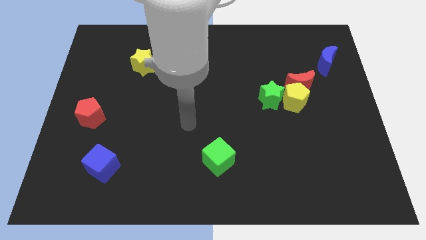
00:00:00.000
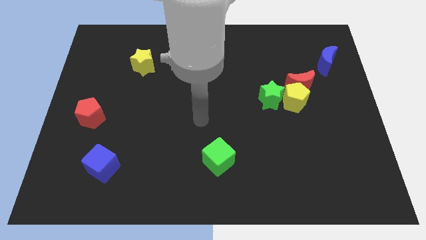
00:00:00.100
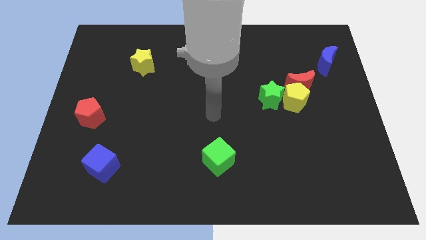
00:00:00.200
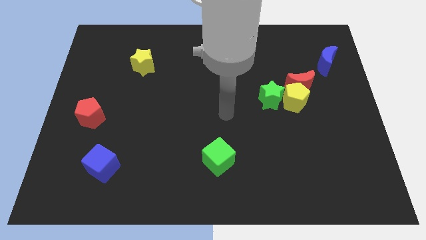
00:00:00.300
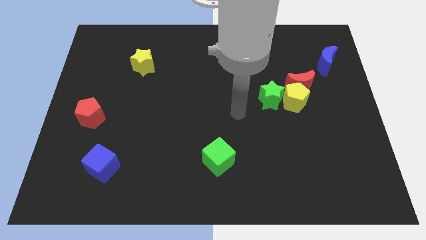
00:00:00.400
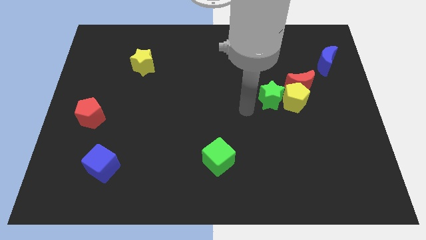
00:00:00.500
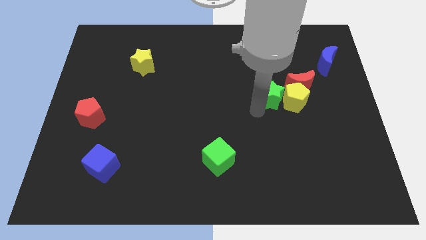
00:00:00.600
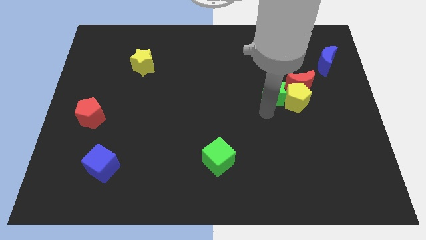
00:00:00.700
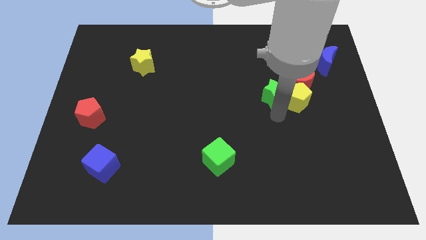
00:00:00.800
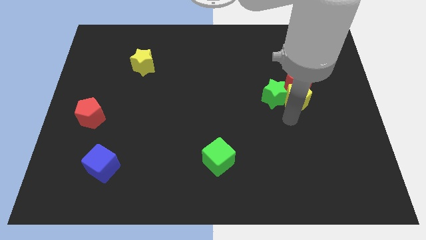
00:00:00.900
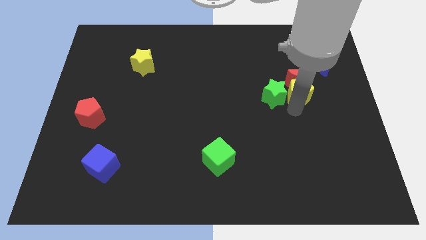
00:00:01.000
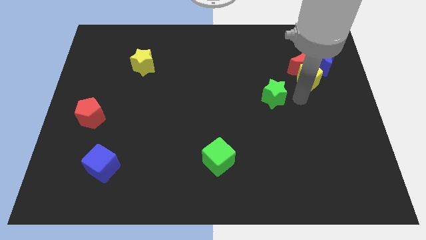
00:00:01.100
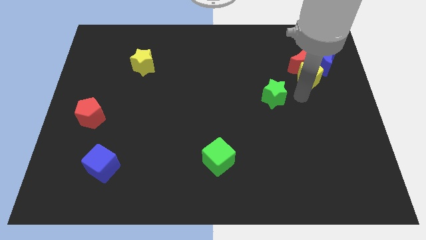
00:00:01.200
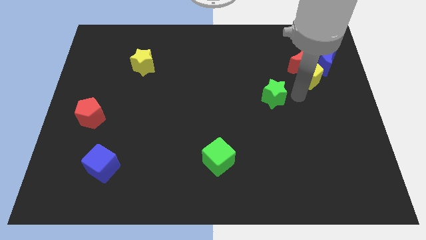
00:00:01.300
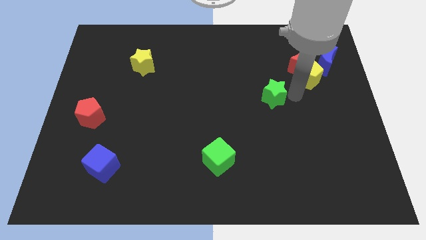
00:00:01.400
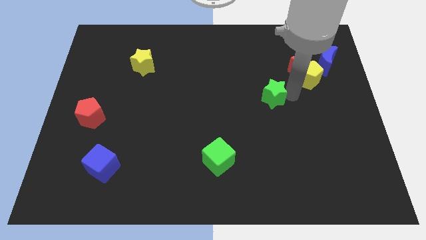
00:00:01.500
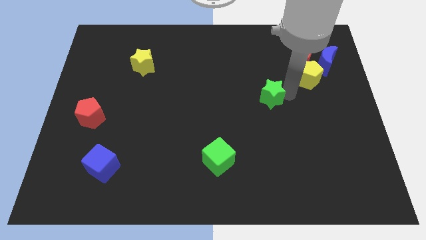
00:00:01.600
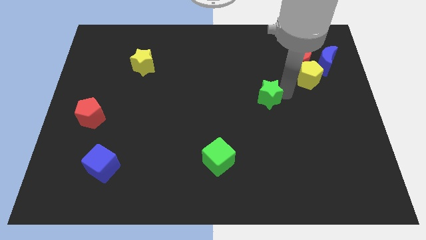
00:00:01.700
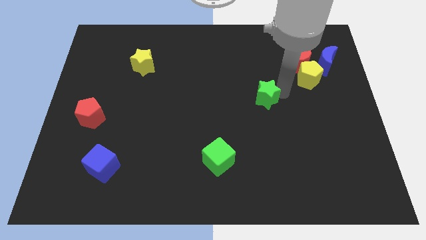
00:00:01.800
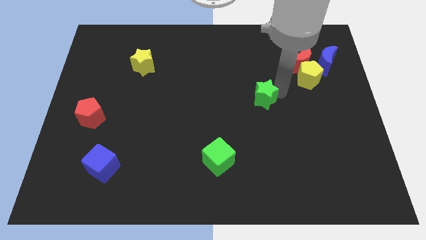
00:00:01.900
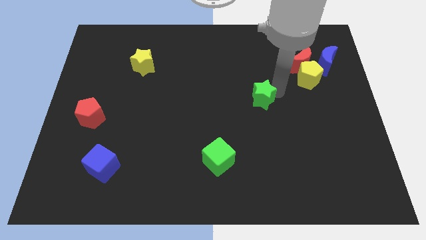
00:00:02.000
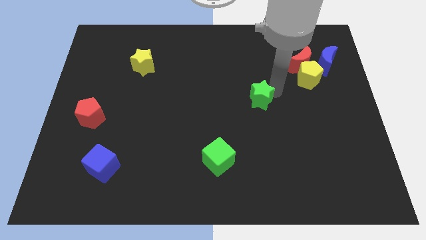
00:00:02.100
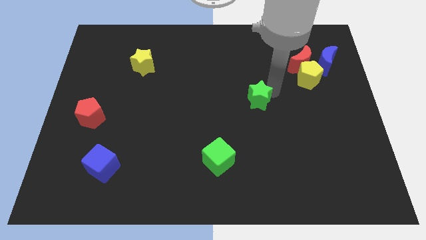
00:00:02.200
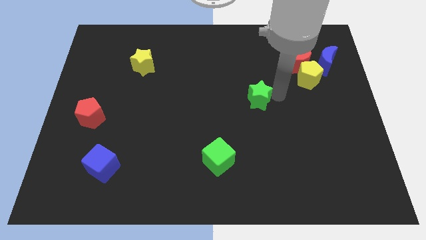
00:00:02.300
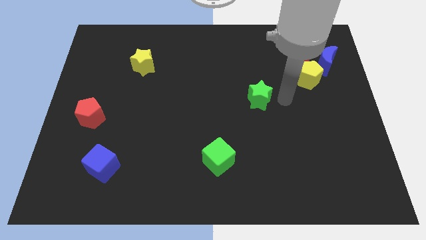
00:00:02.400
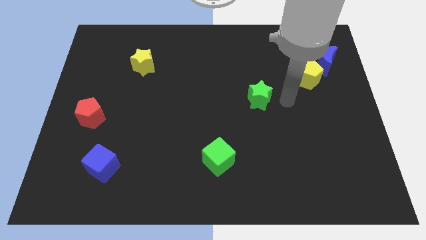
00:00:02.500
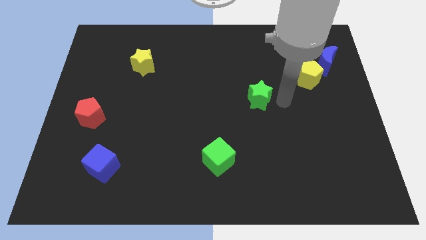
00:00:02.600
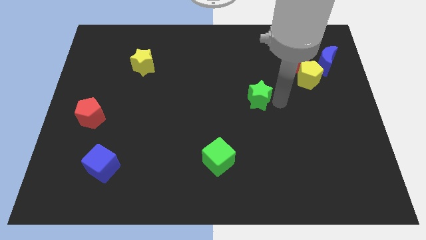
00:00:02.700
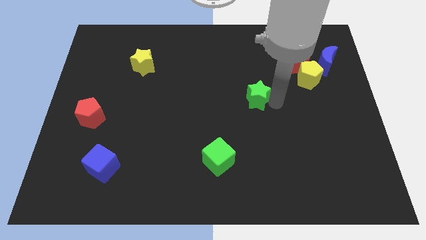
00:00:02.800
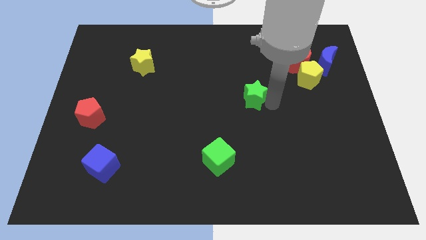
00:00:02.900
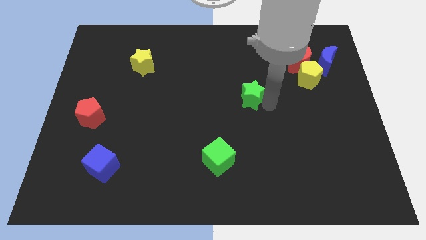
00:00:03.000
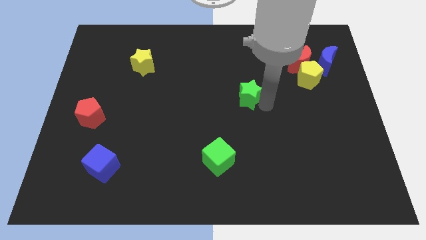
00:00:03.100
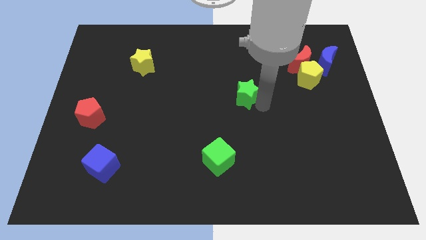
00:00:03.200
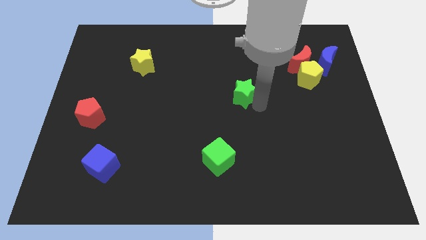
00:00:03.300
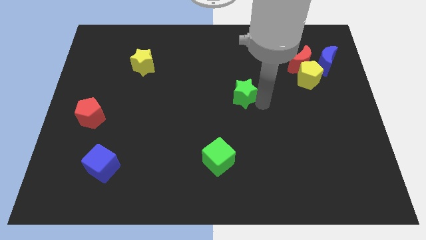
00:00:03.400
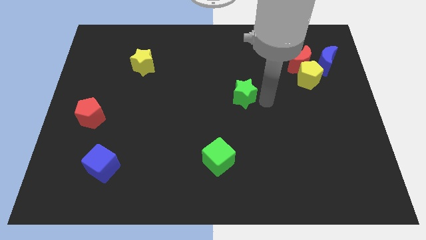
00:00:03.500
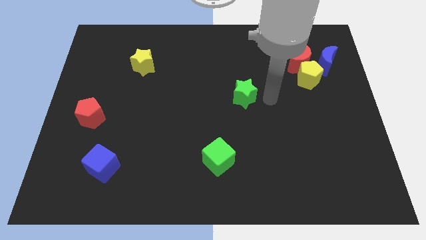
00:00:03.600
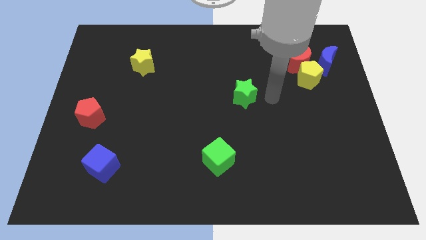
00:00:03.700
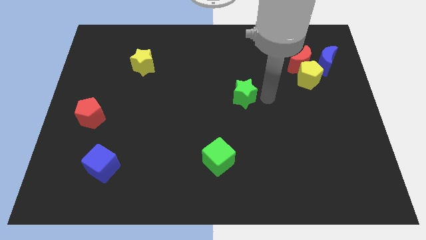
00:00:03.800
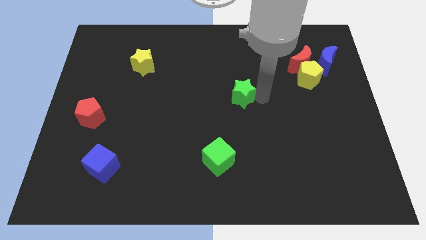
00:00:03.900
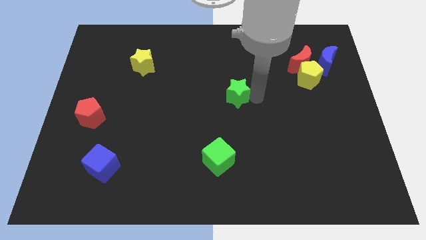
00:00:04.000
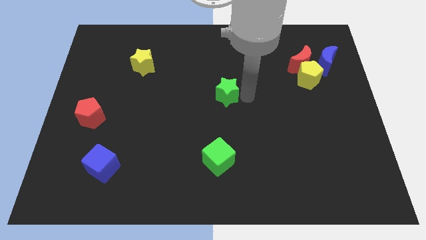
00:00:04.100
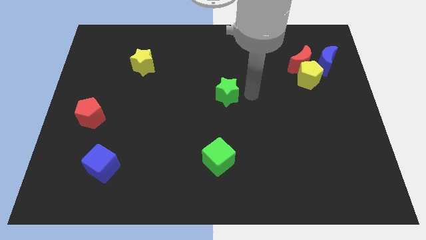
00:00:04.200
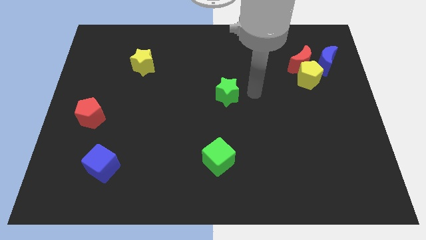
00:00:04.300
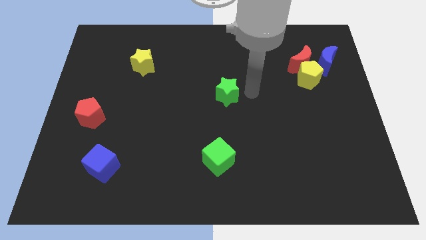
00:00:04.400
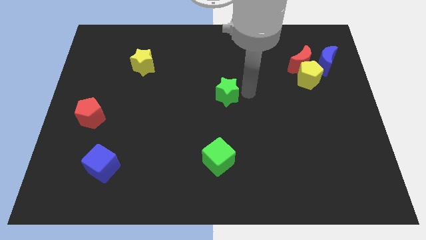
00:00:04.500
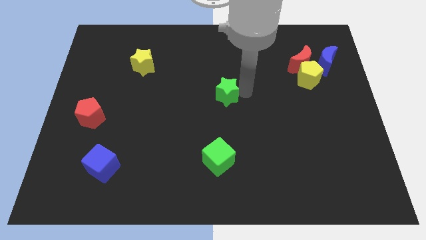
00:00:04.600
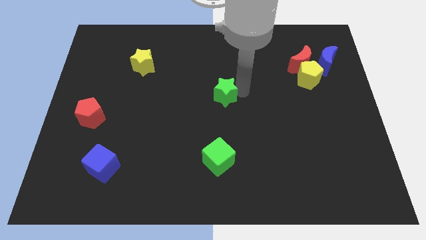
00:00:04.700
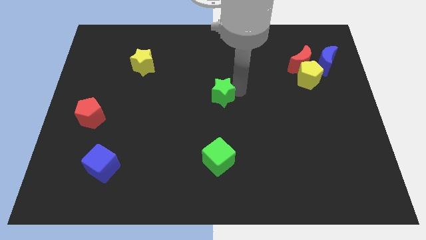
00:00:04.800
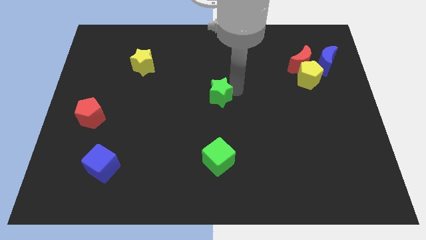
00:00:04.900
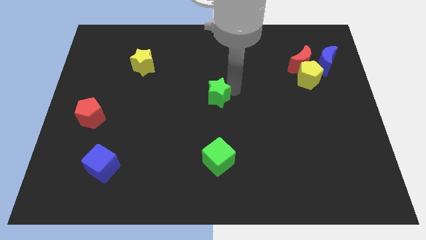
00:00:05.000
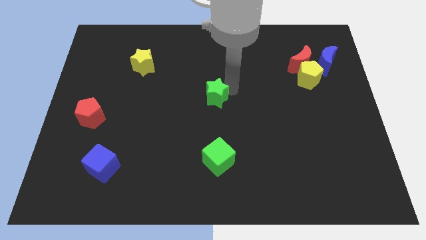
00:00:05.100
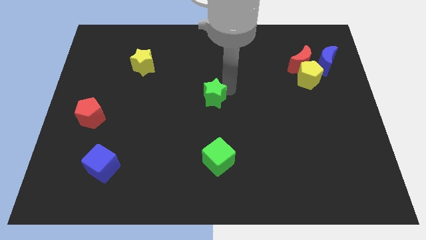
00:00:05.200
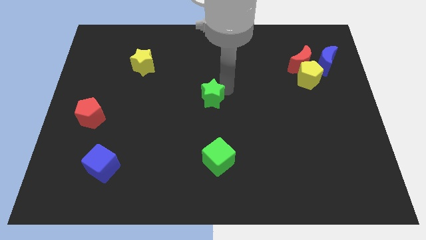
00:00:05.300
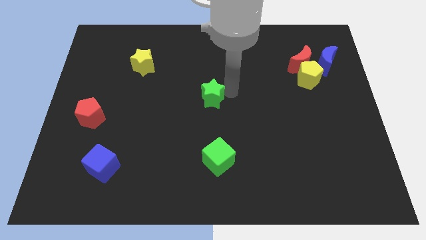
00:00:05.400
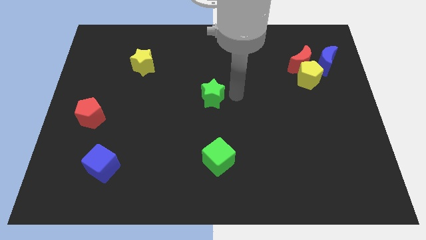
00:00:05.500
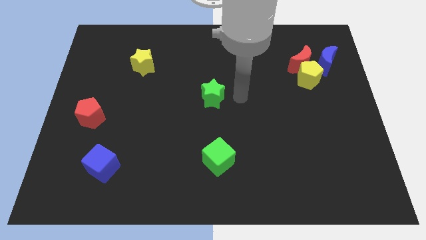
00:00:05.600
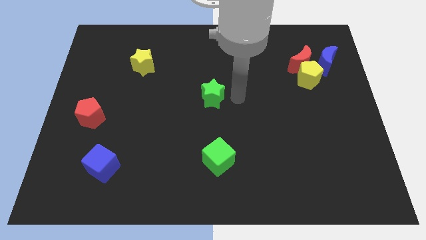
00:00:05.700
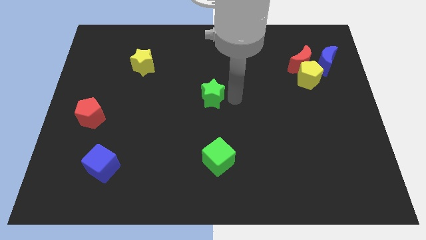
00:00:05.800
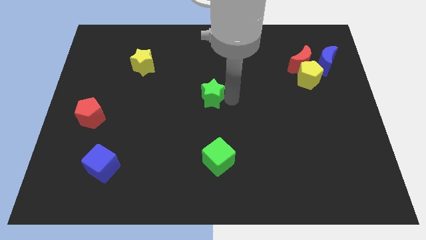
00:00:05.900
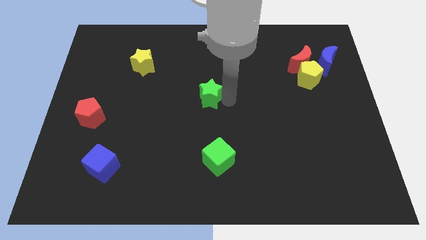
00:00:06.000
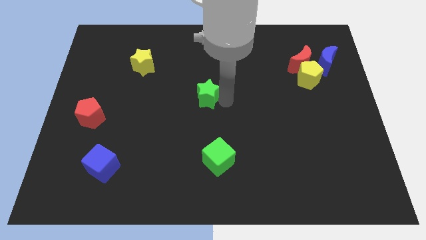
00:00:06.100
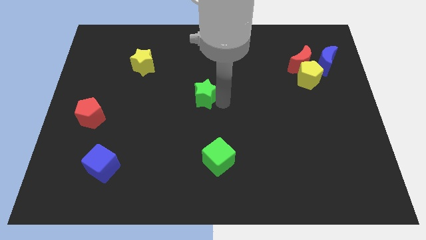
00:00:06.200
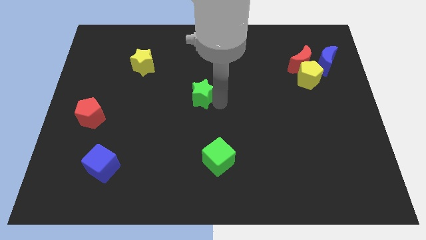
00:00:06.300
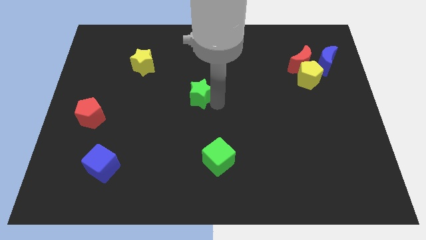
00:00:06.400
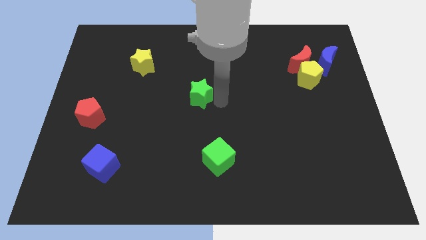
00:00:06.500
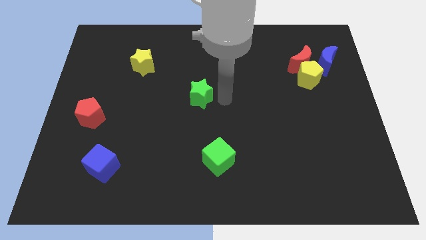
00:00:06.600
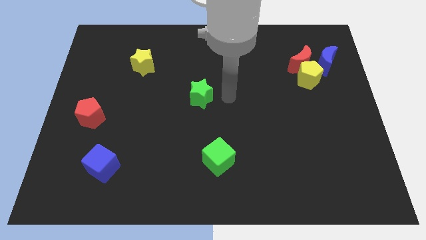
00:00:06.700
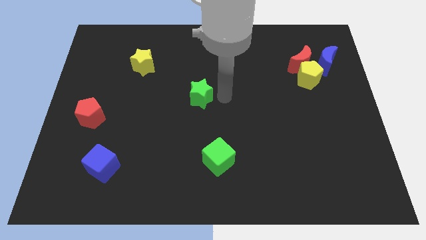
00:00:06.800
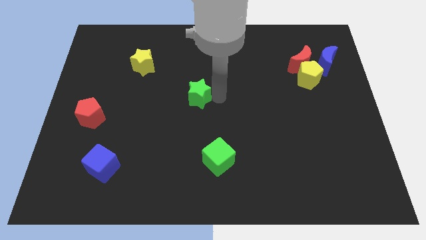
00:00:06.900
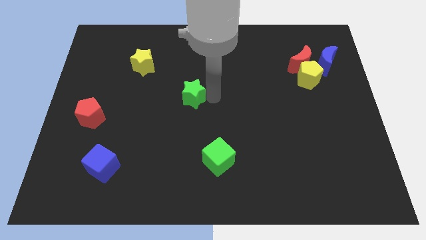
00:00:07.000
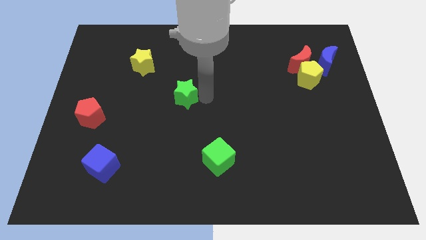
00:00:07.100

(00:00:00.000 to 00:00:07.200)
push the green star to the left

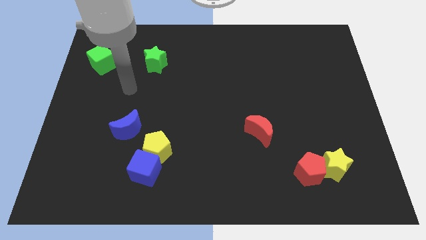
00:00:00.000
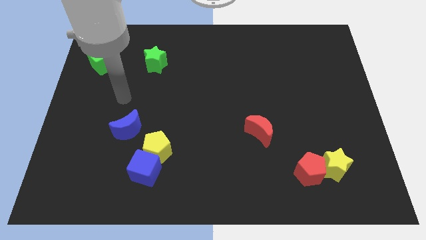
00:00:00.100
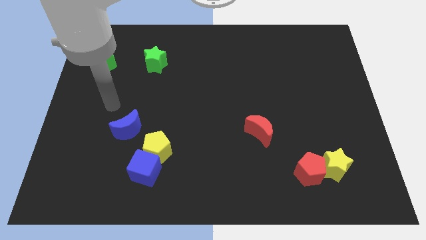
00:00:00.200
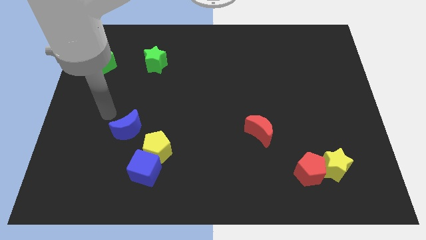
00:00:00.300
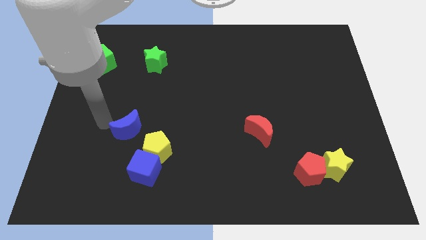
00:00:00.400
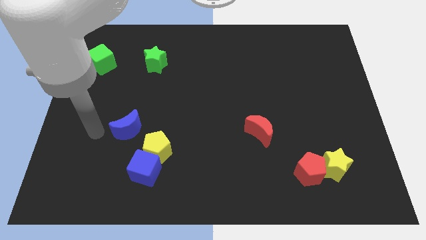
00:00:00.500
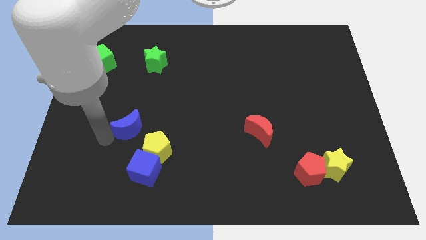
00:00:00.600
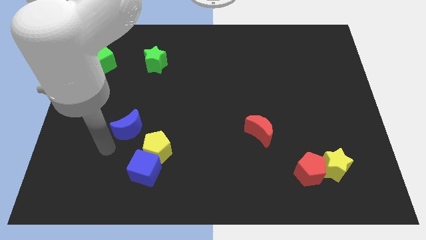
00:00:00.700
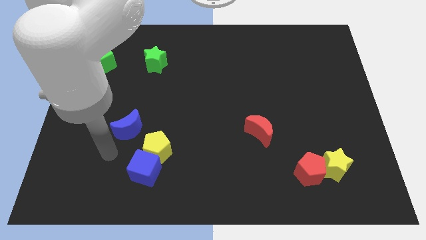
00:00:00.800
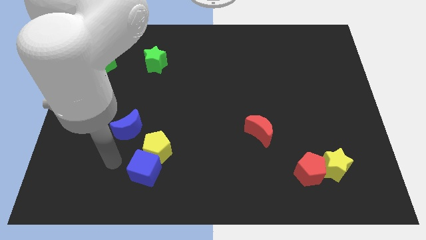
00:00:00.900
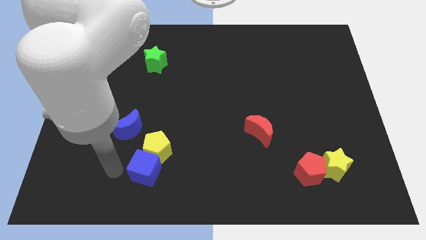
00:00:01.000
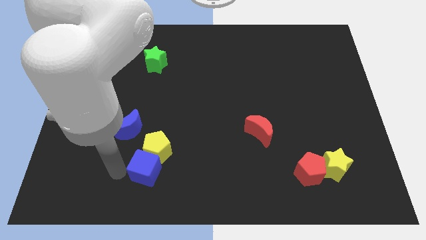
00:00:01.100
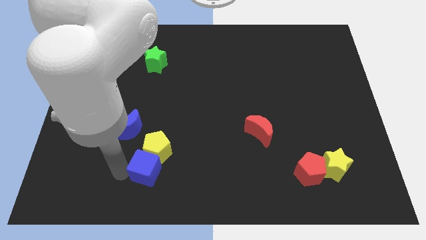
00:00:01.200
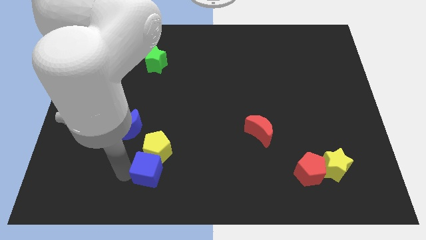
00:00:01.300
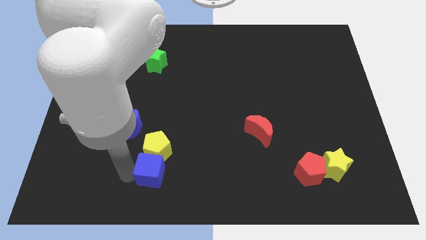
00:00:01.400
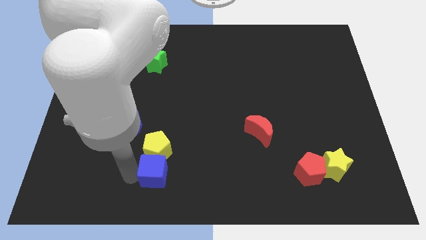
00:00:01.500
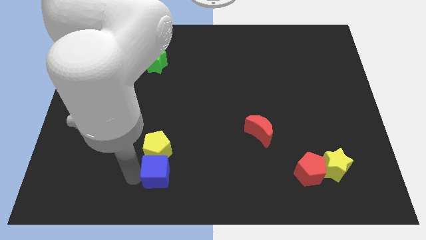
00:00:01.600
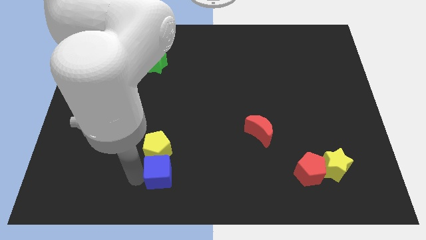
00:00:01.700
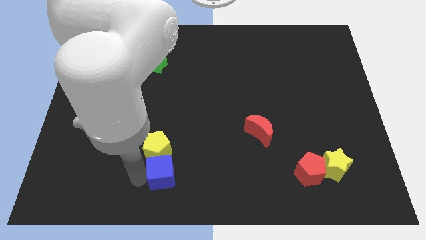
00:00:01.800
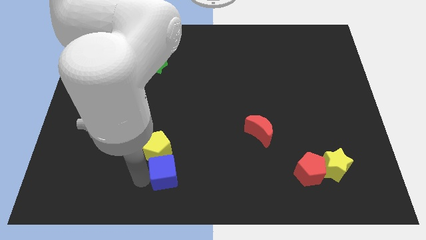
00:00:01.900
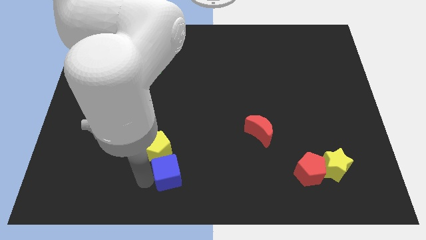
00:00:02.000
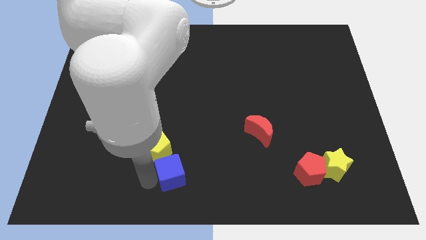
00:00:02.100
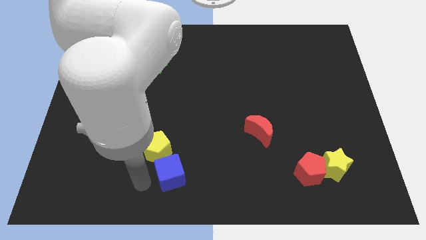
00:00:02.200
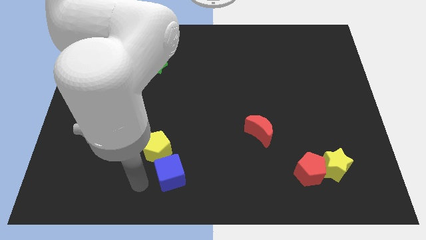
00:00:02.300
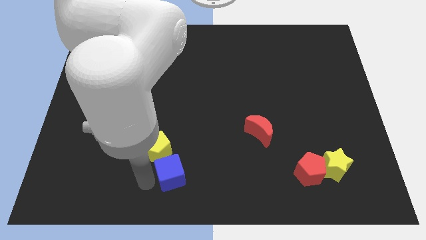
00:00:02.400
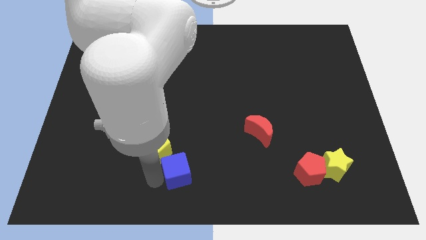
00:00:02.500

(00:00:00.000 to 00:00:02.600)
slightly move the blue cube right
